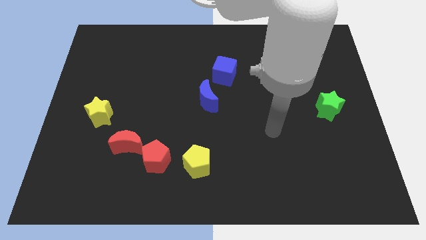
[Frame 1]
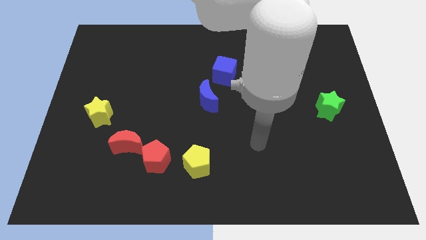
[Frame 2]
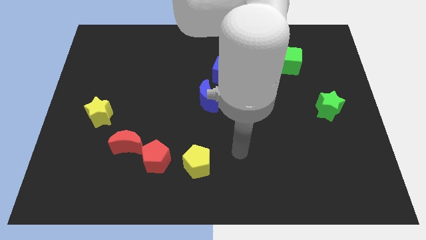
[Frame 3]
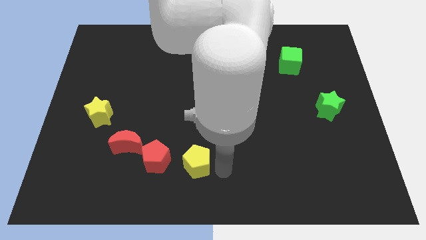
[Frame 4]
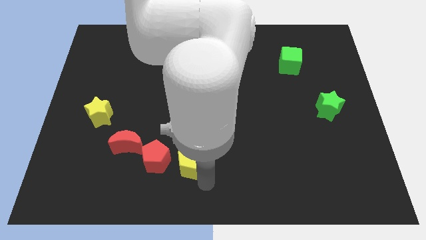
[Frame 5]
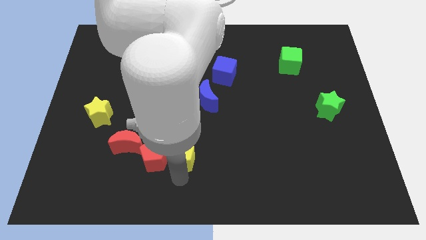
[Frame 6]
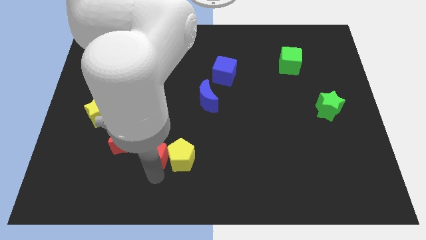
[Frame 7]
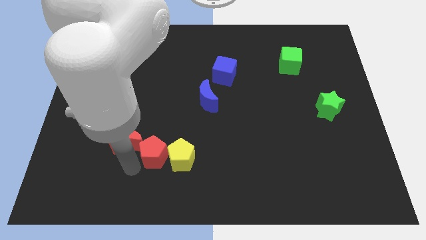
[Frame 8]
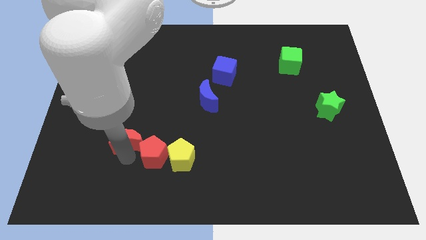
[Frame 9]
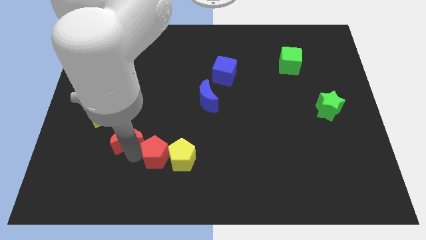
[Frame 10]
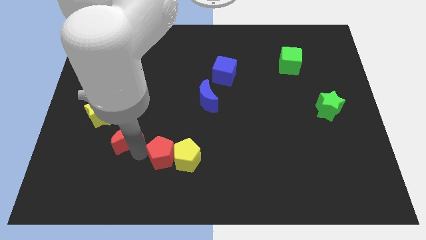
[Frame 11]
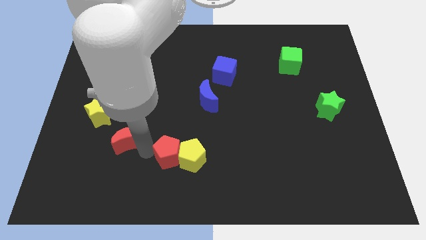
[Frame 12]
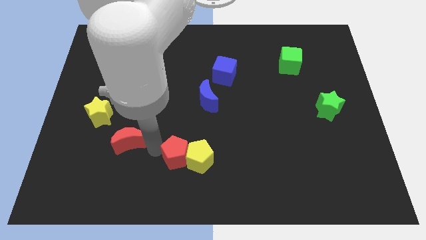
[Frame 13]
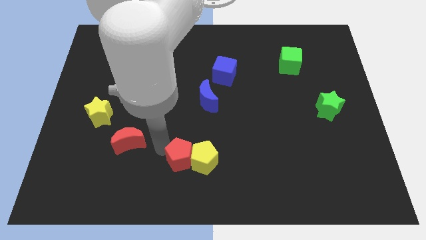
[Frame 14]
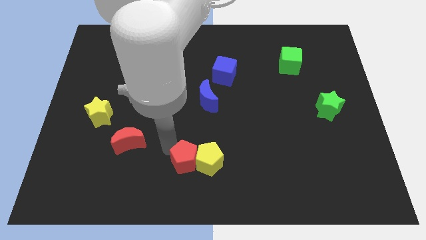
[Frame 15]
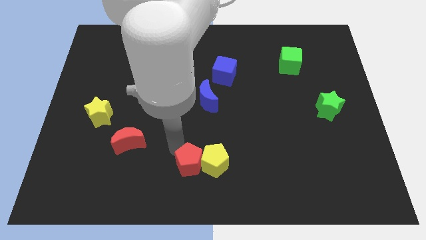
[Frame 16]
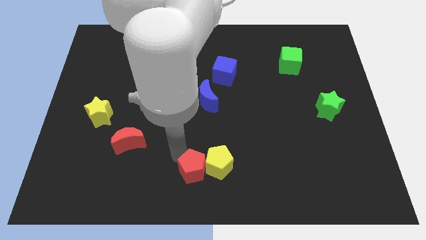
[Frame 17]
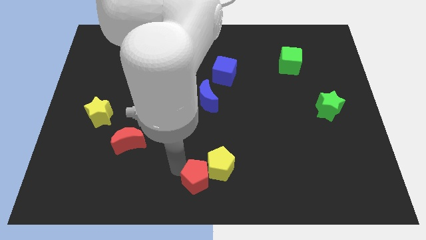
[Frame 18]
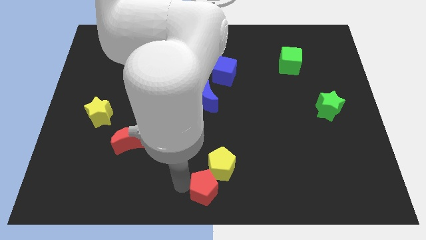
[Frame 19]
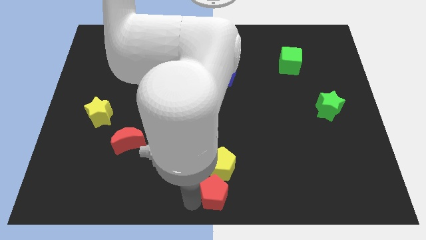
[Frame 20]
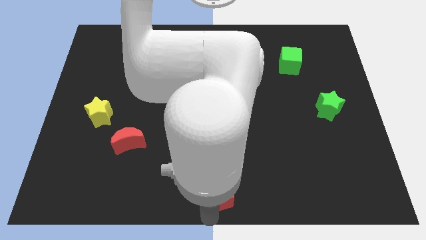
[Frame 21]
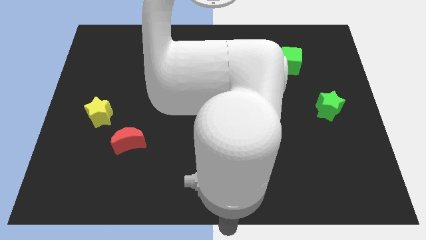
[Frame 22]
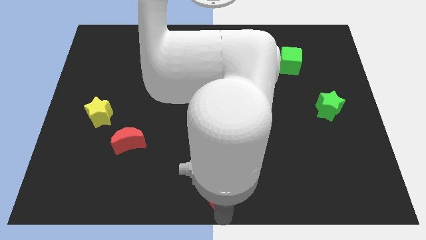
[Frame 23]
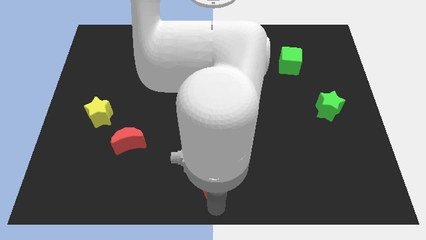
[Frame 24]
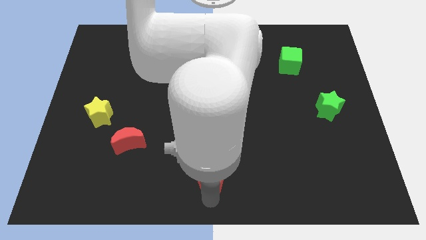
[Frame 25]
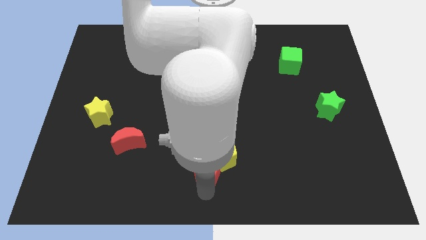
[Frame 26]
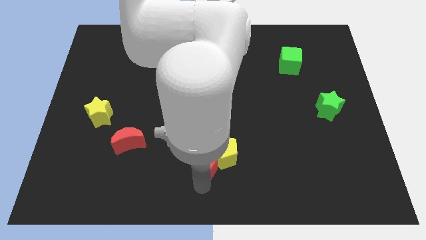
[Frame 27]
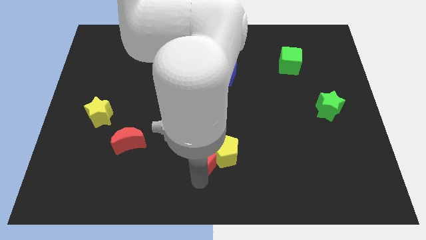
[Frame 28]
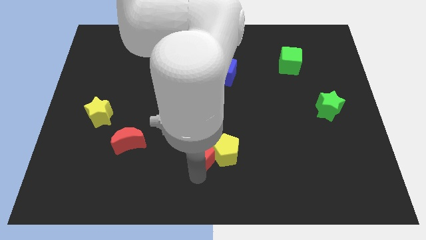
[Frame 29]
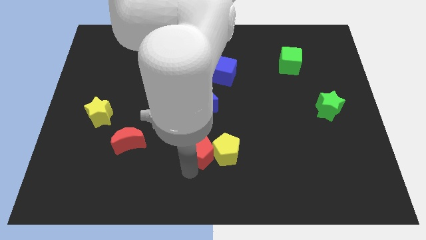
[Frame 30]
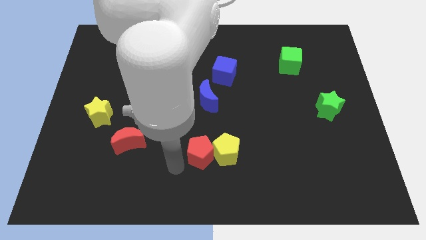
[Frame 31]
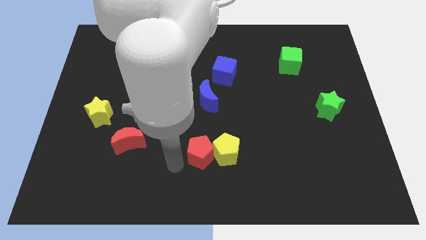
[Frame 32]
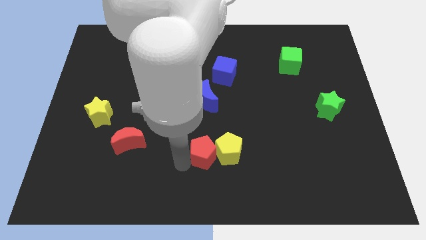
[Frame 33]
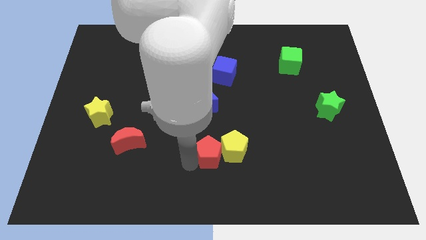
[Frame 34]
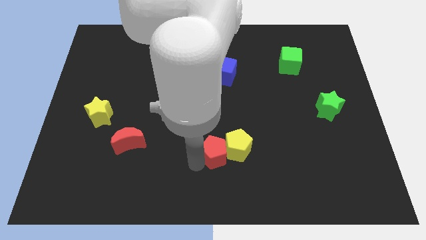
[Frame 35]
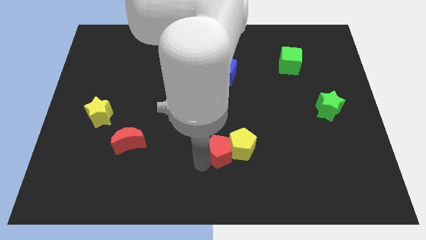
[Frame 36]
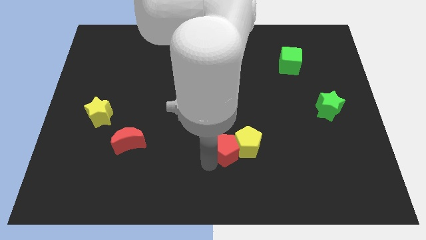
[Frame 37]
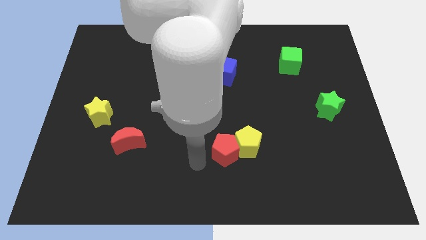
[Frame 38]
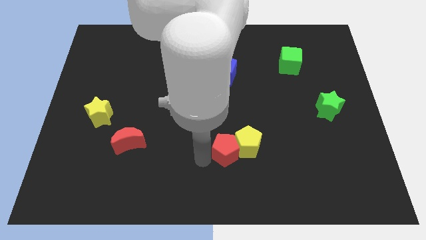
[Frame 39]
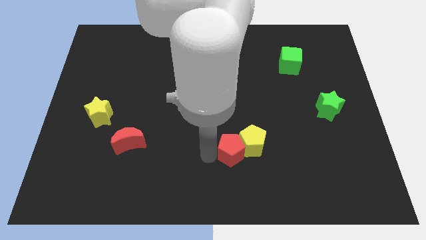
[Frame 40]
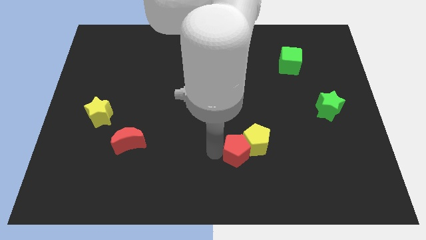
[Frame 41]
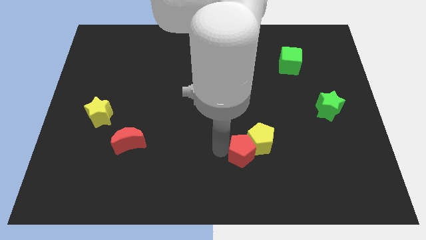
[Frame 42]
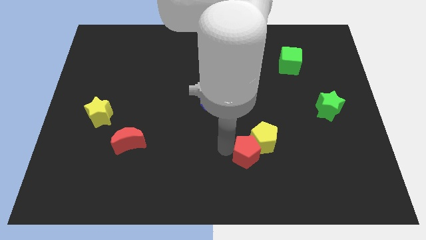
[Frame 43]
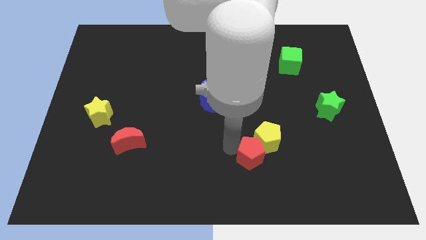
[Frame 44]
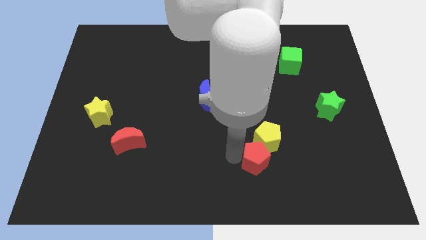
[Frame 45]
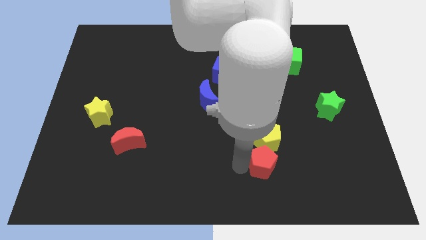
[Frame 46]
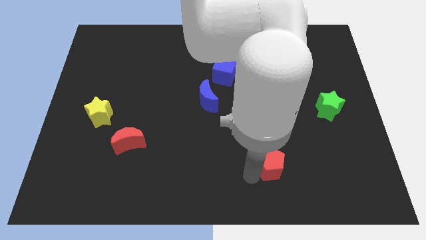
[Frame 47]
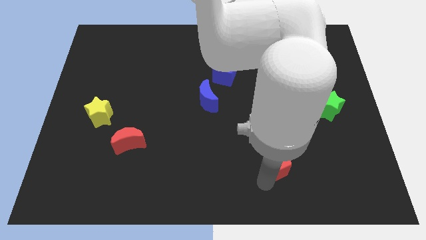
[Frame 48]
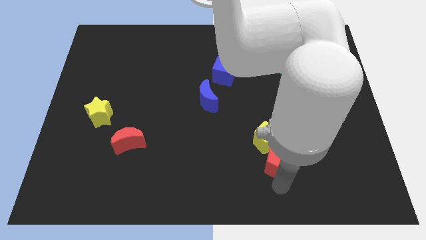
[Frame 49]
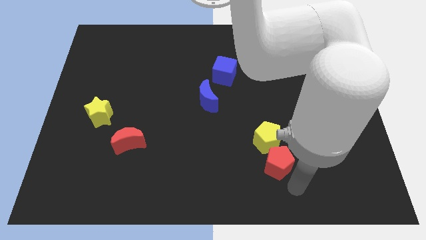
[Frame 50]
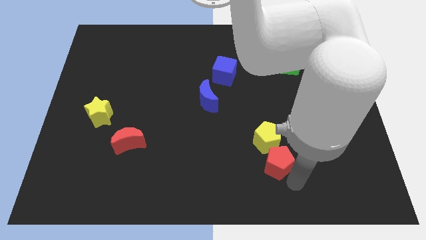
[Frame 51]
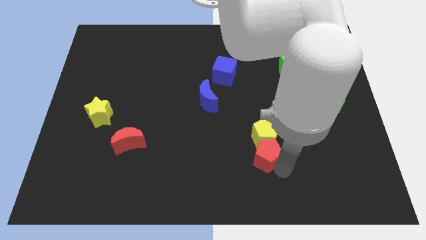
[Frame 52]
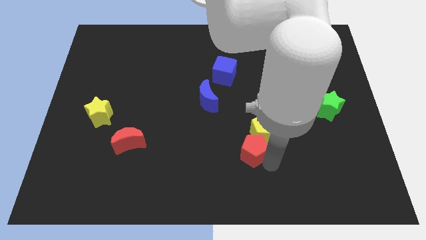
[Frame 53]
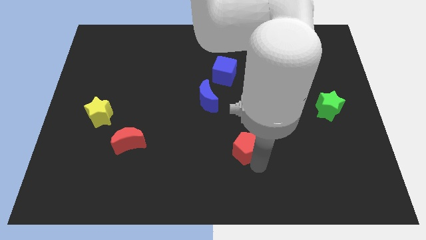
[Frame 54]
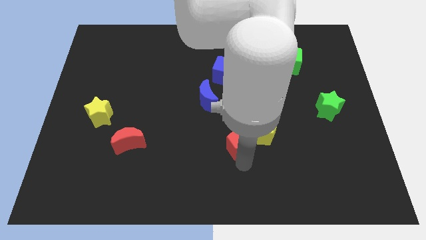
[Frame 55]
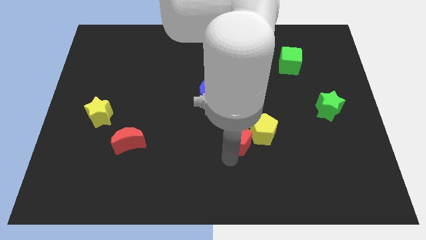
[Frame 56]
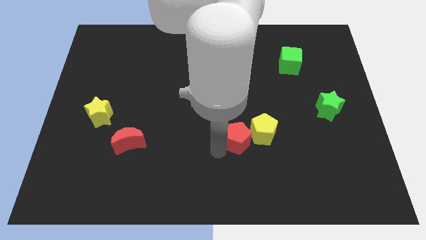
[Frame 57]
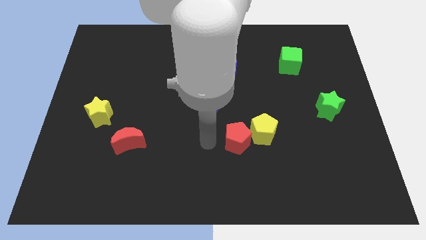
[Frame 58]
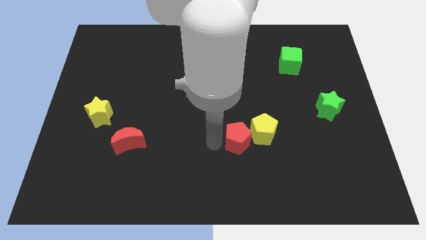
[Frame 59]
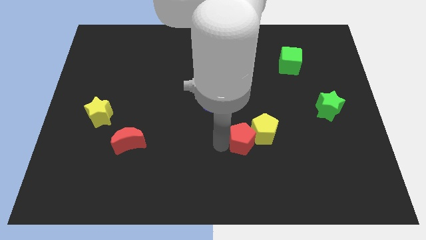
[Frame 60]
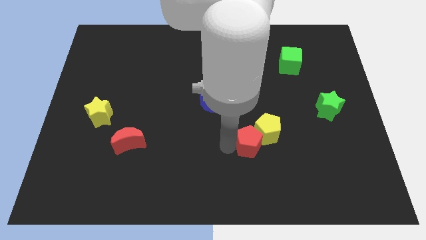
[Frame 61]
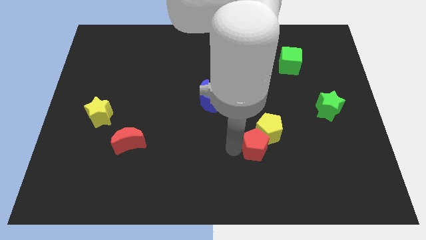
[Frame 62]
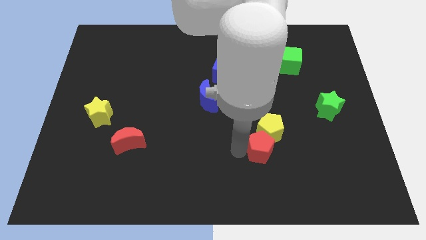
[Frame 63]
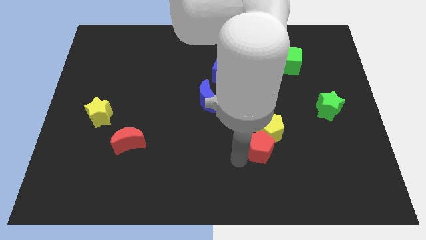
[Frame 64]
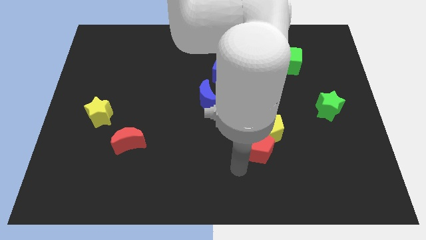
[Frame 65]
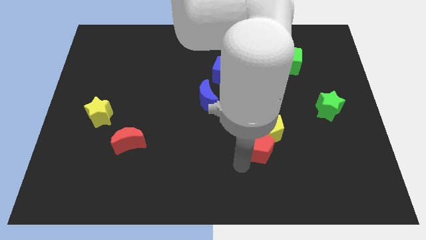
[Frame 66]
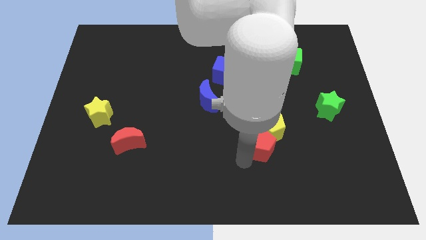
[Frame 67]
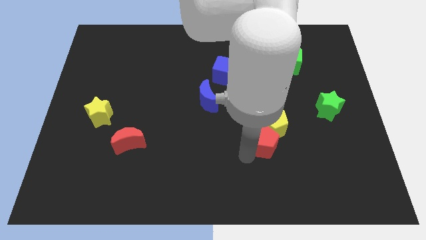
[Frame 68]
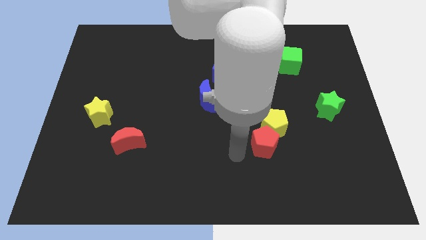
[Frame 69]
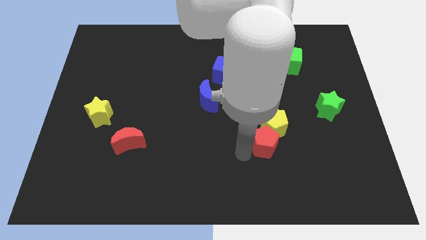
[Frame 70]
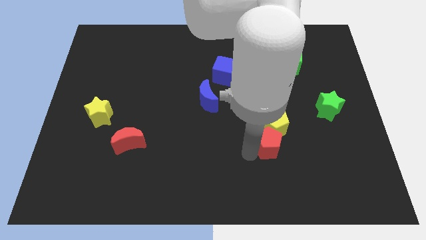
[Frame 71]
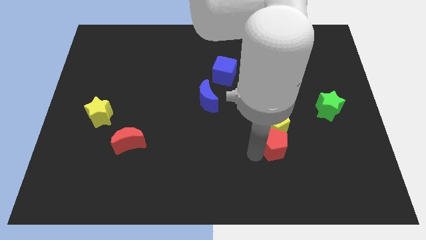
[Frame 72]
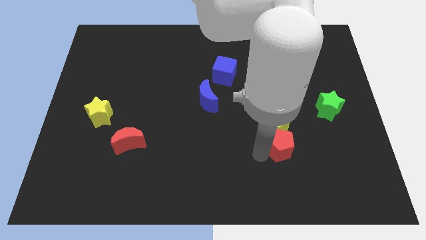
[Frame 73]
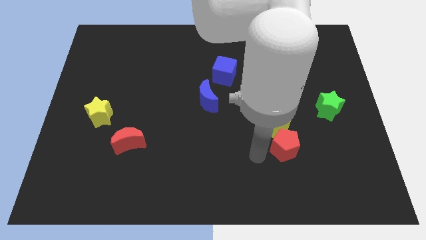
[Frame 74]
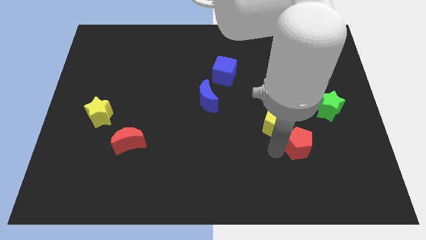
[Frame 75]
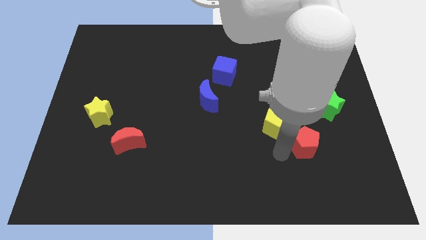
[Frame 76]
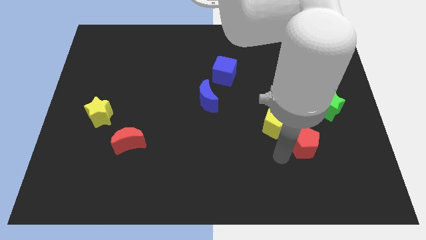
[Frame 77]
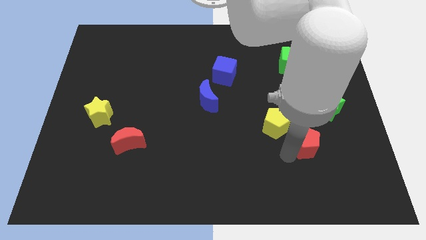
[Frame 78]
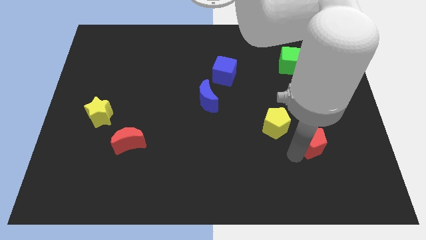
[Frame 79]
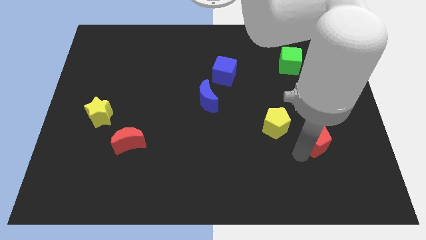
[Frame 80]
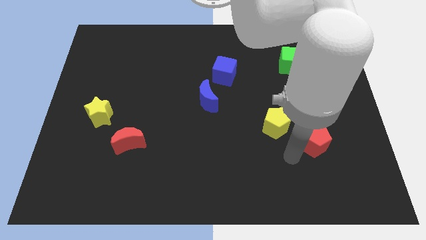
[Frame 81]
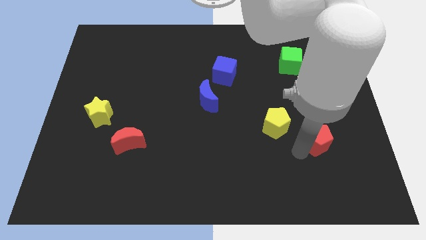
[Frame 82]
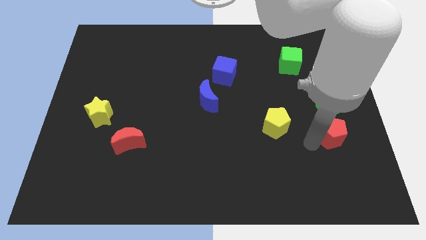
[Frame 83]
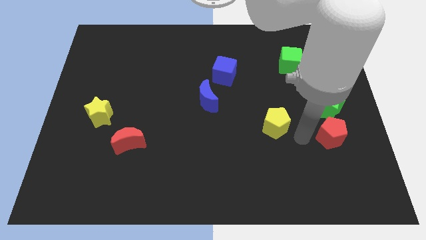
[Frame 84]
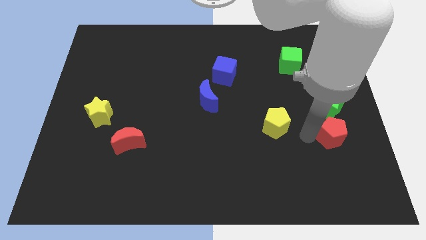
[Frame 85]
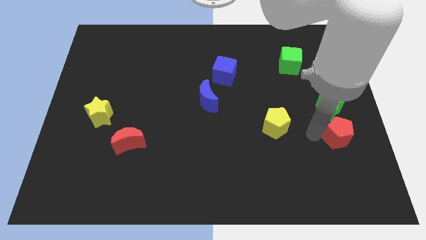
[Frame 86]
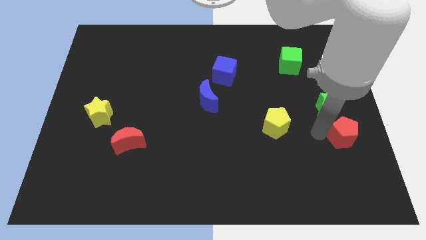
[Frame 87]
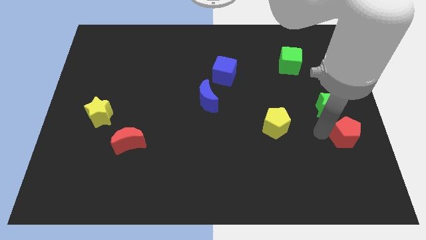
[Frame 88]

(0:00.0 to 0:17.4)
push the red pentagon to the right side
